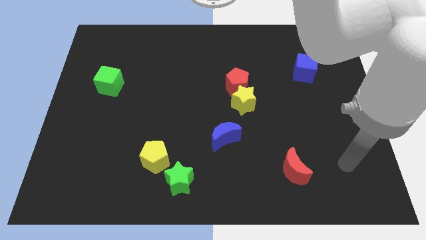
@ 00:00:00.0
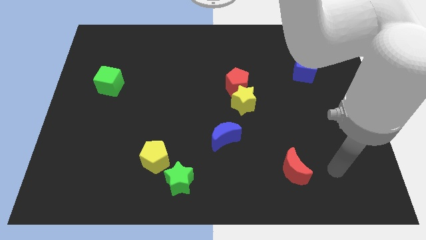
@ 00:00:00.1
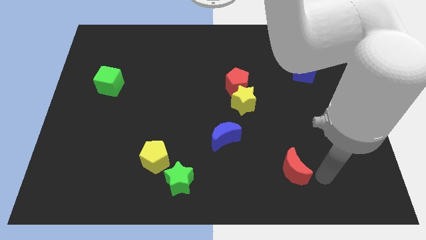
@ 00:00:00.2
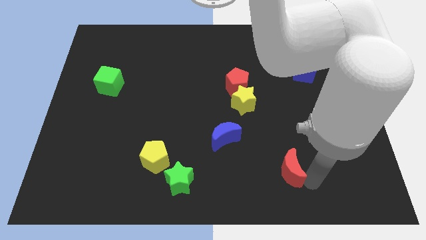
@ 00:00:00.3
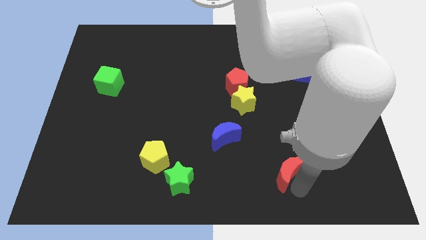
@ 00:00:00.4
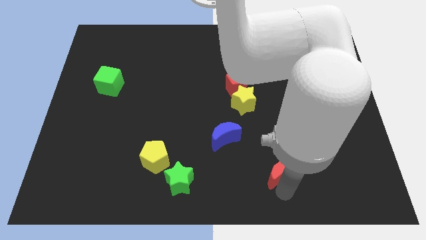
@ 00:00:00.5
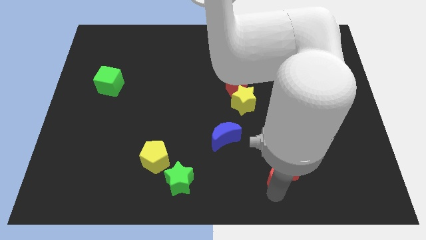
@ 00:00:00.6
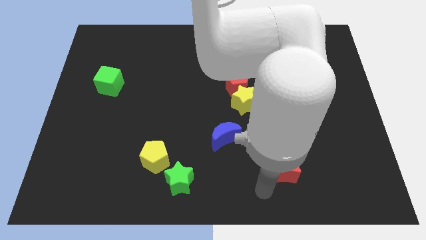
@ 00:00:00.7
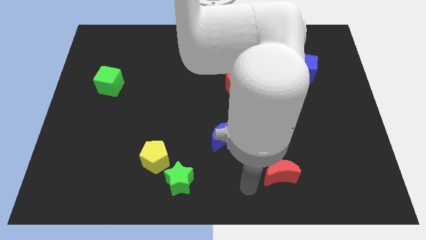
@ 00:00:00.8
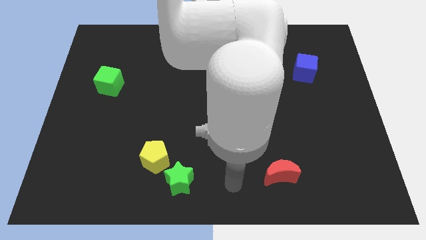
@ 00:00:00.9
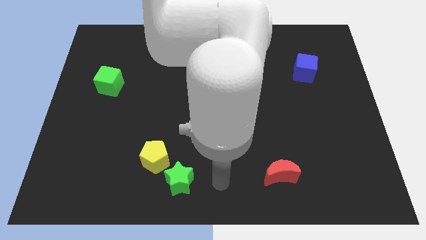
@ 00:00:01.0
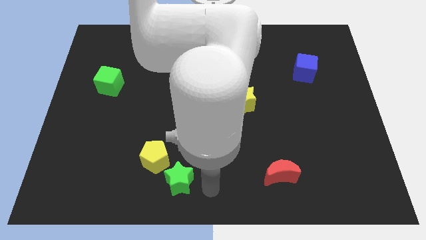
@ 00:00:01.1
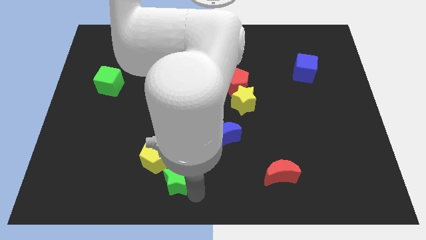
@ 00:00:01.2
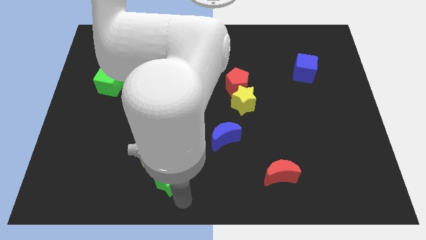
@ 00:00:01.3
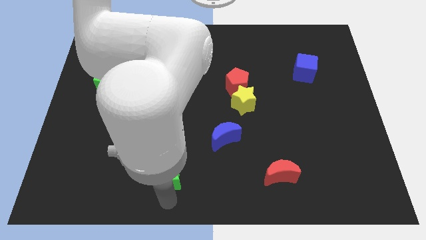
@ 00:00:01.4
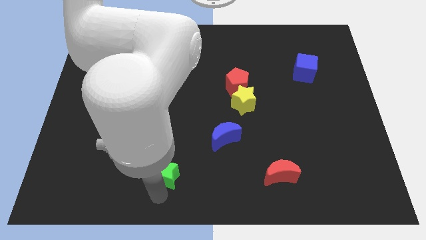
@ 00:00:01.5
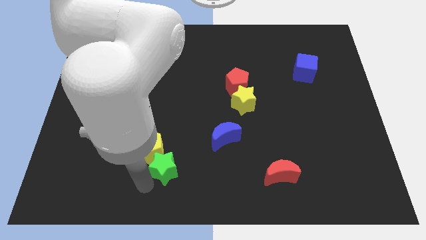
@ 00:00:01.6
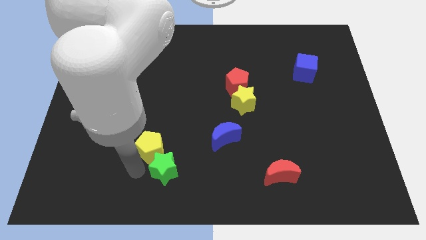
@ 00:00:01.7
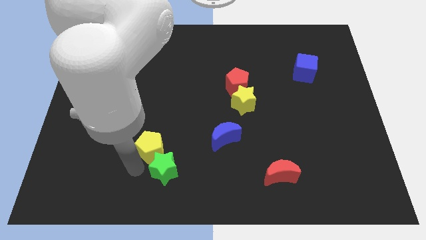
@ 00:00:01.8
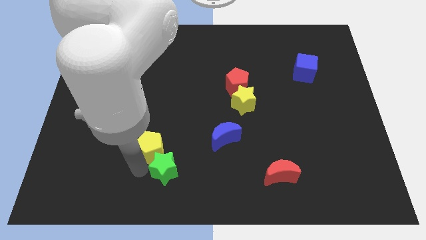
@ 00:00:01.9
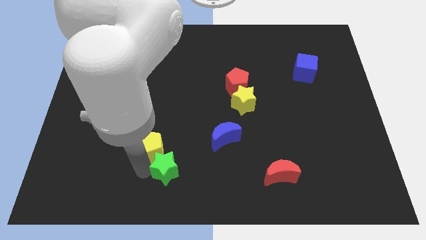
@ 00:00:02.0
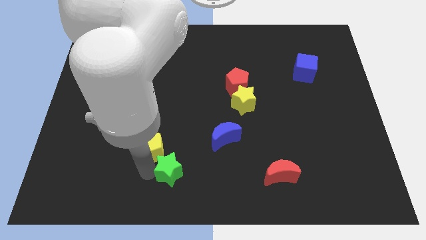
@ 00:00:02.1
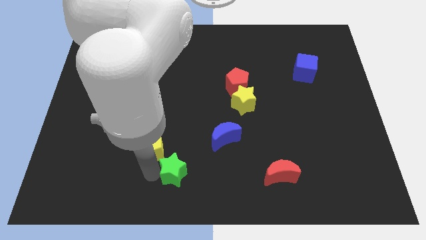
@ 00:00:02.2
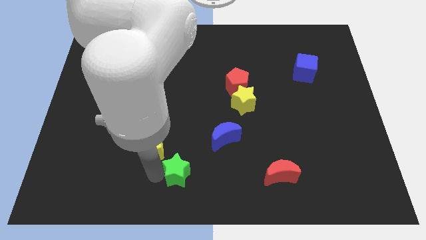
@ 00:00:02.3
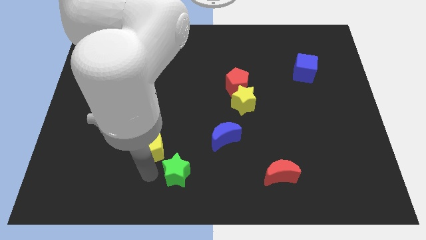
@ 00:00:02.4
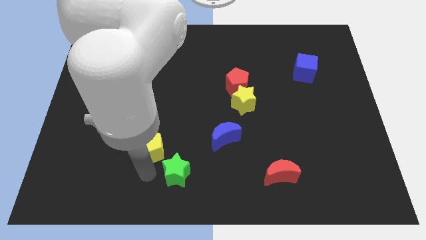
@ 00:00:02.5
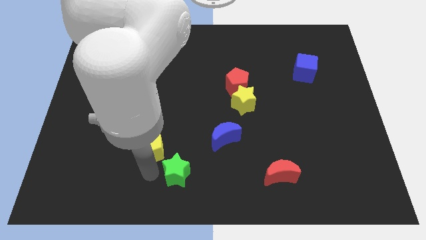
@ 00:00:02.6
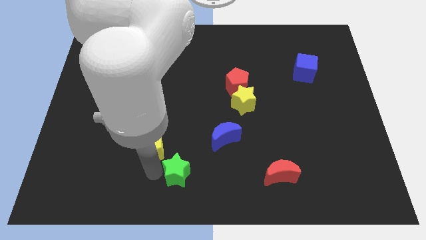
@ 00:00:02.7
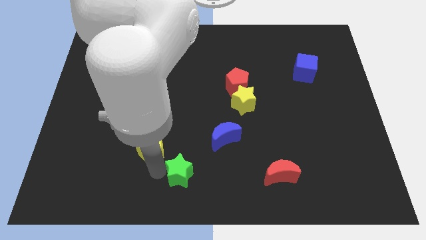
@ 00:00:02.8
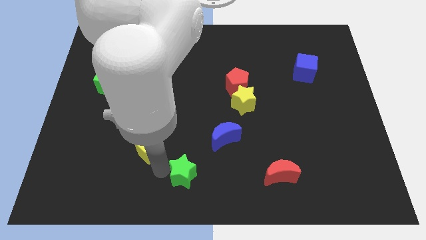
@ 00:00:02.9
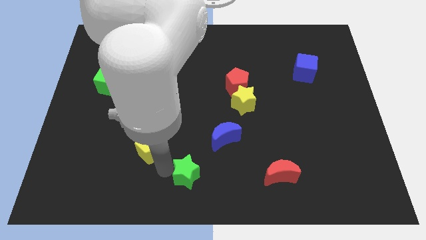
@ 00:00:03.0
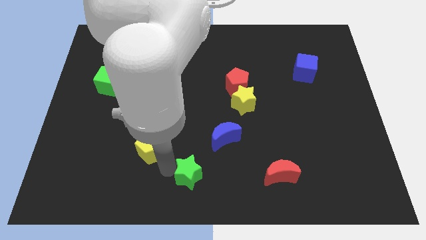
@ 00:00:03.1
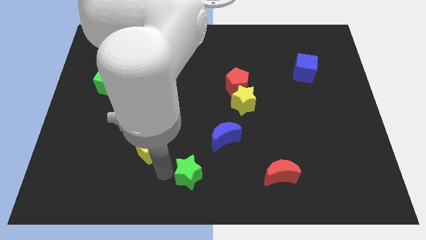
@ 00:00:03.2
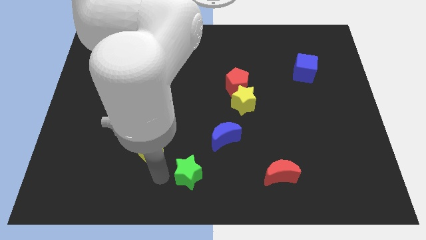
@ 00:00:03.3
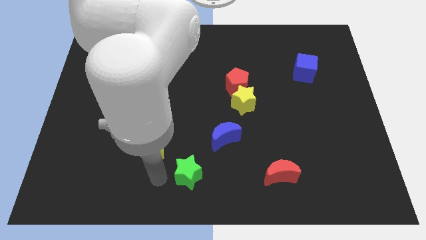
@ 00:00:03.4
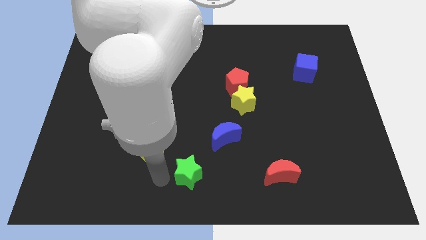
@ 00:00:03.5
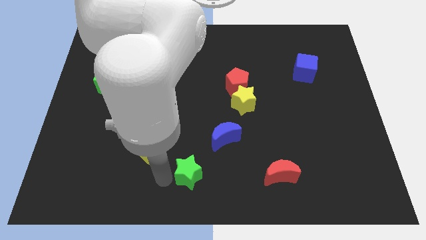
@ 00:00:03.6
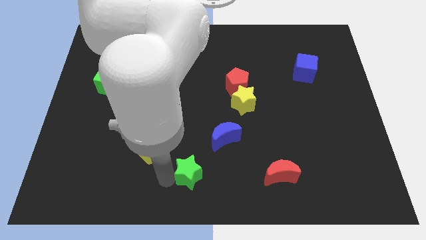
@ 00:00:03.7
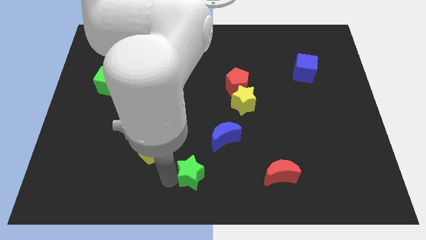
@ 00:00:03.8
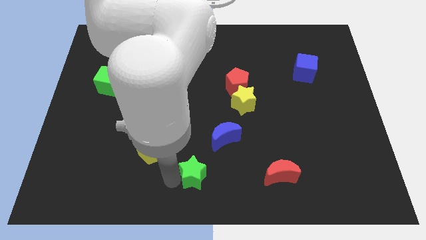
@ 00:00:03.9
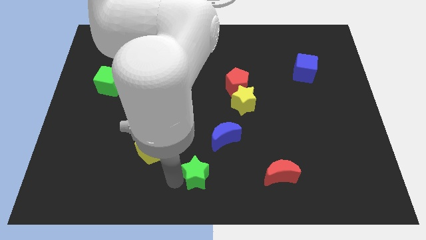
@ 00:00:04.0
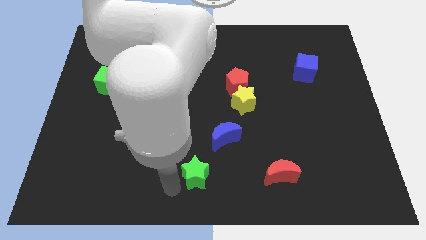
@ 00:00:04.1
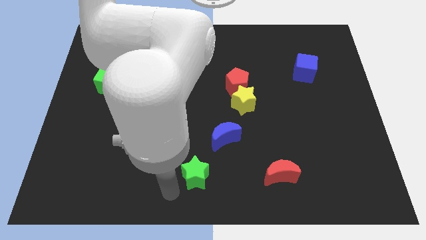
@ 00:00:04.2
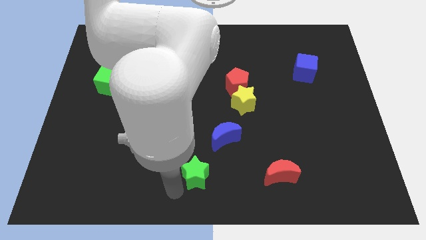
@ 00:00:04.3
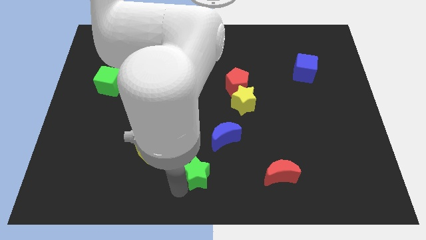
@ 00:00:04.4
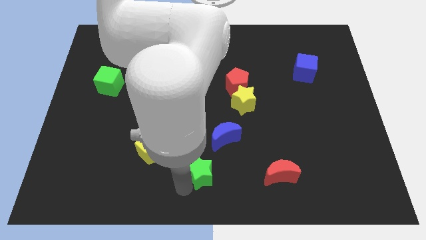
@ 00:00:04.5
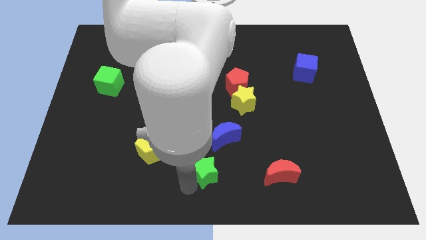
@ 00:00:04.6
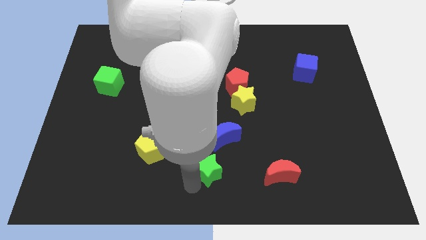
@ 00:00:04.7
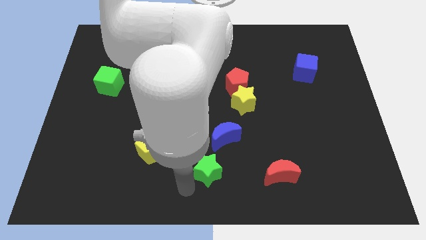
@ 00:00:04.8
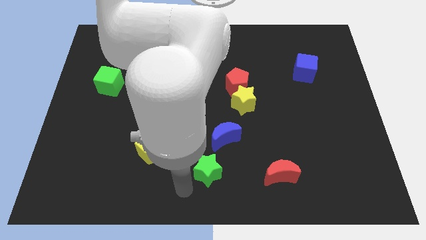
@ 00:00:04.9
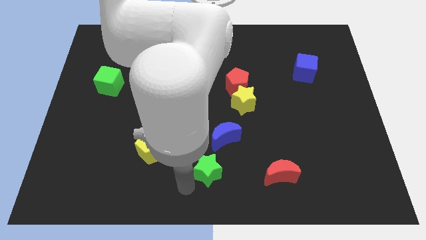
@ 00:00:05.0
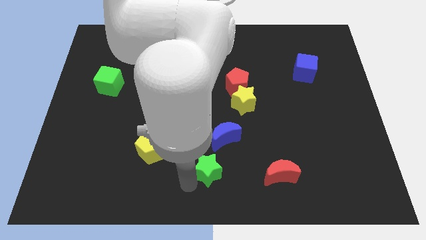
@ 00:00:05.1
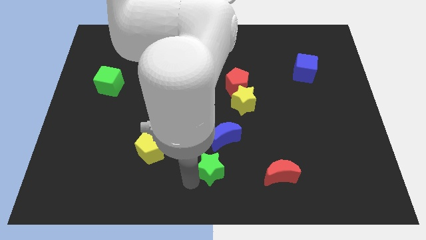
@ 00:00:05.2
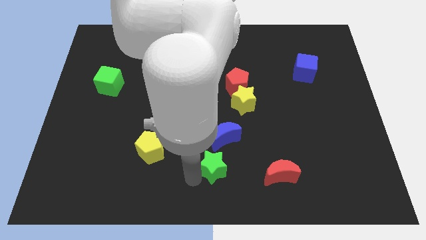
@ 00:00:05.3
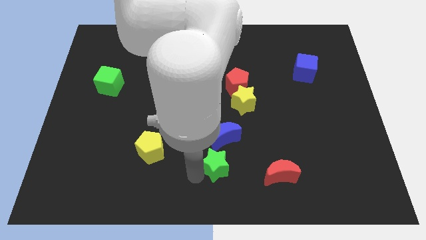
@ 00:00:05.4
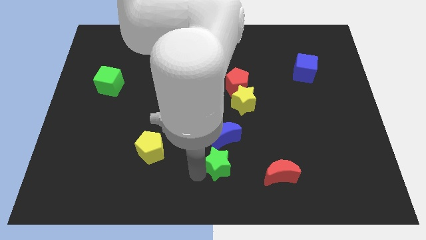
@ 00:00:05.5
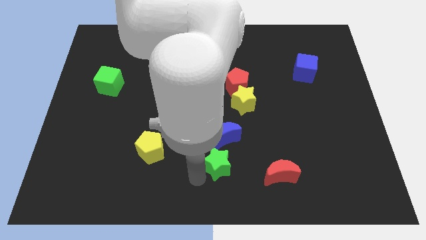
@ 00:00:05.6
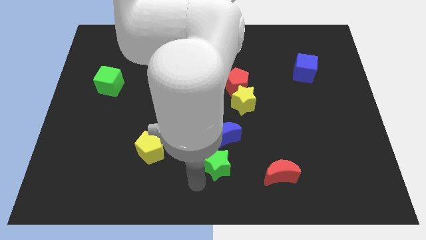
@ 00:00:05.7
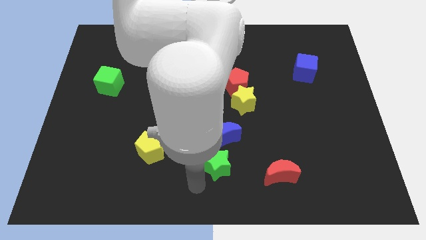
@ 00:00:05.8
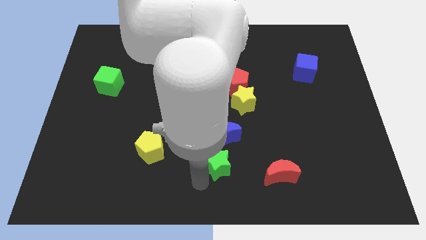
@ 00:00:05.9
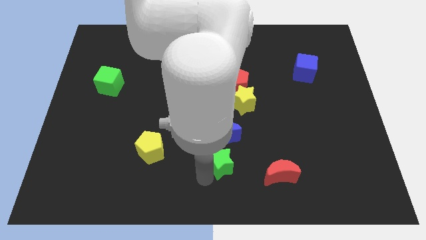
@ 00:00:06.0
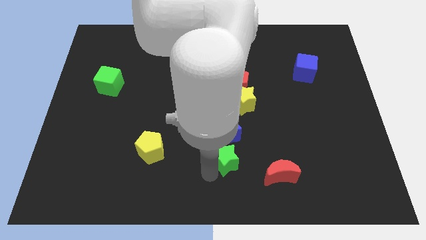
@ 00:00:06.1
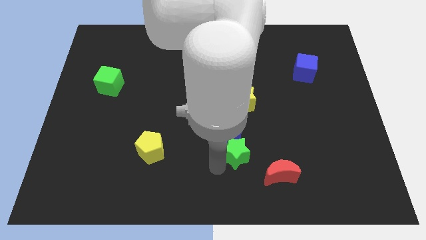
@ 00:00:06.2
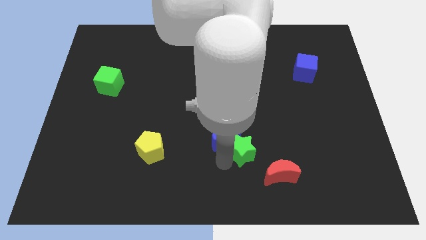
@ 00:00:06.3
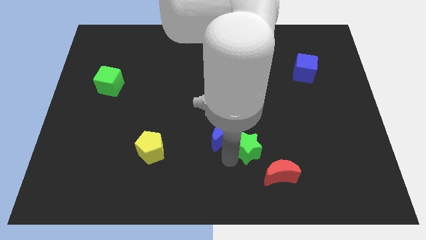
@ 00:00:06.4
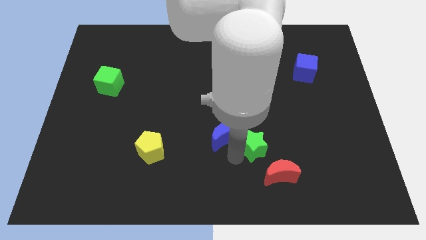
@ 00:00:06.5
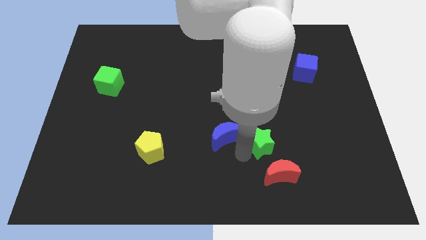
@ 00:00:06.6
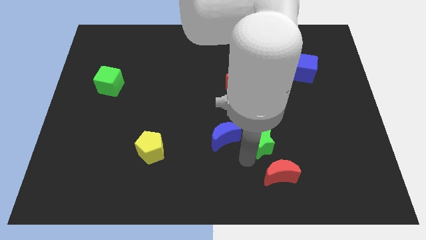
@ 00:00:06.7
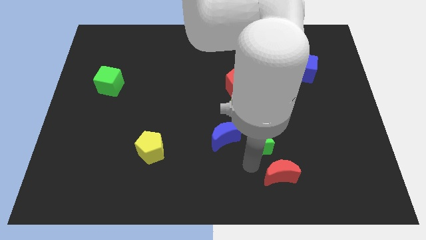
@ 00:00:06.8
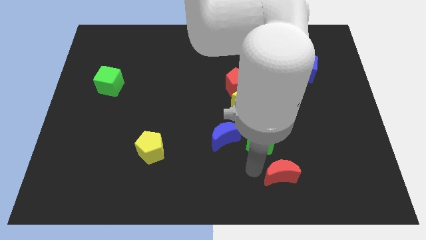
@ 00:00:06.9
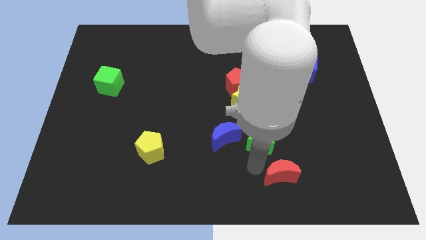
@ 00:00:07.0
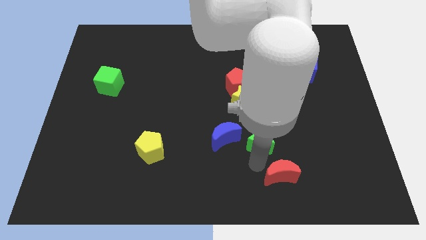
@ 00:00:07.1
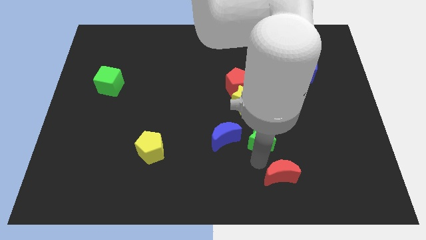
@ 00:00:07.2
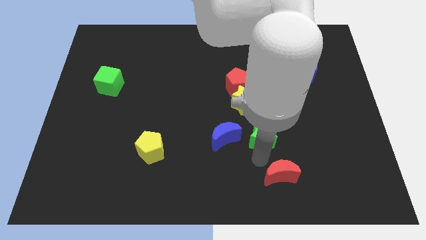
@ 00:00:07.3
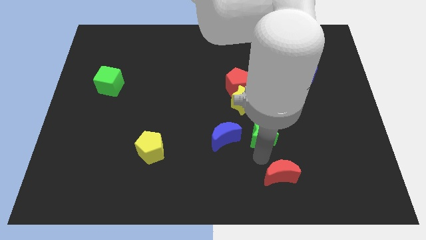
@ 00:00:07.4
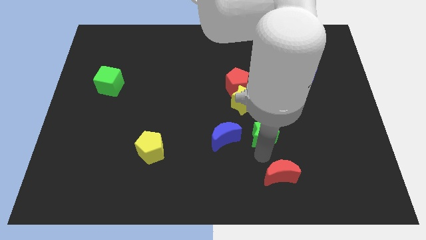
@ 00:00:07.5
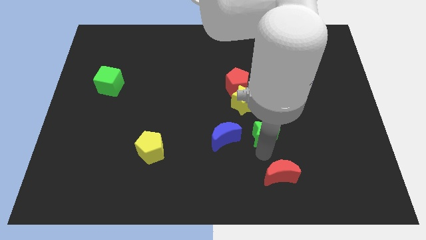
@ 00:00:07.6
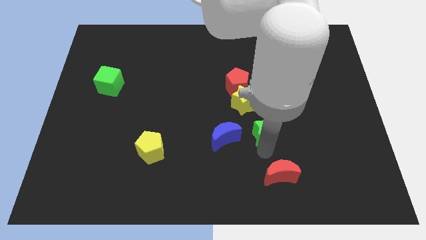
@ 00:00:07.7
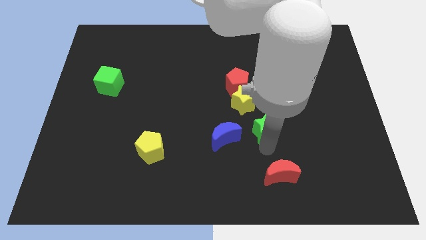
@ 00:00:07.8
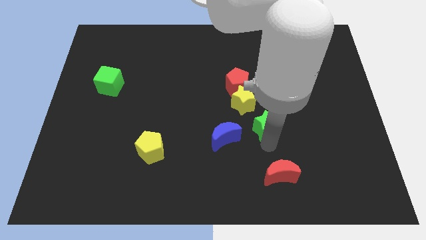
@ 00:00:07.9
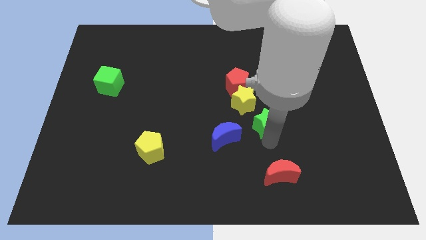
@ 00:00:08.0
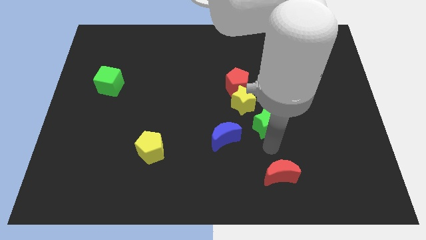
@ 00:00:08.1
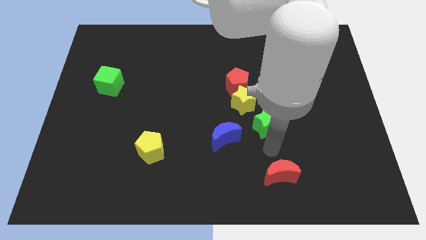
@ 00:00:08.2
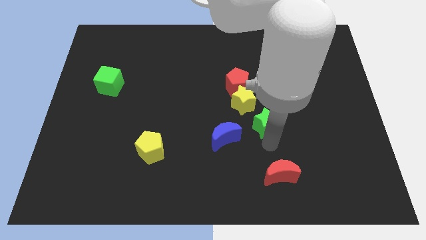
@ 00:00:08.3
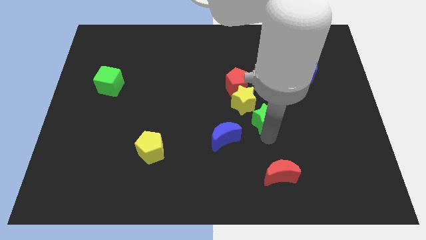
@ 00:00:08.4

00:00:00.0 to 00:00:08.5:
push the green star diagonally down and to the right of the red pentagon
